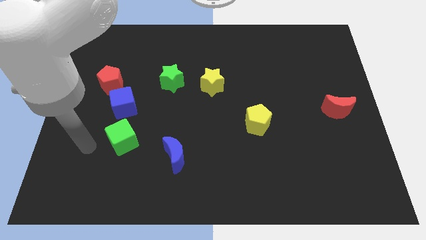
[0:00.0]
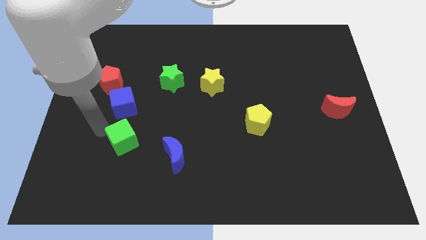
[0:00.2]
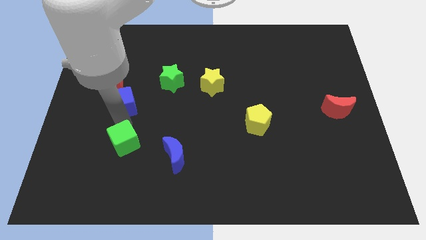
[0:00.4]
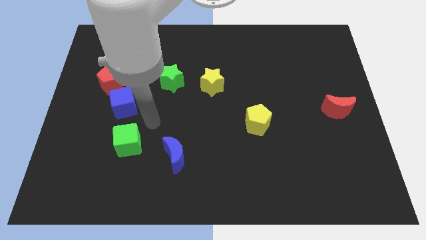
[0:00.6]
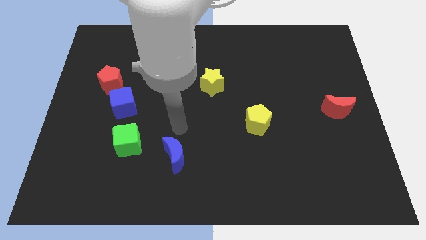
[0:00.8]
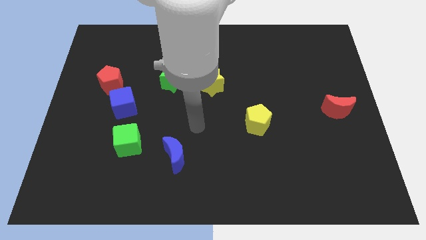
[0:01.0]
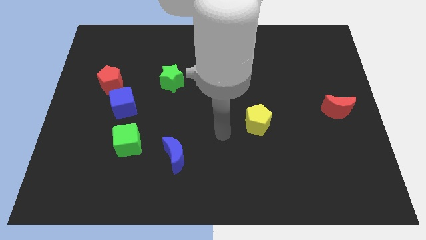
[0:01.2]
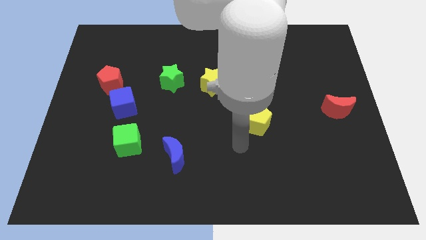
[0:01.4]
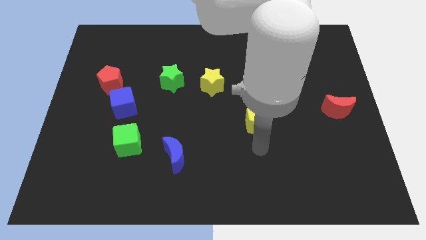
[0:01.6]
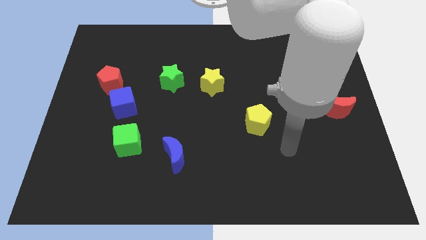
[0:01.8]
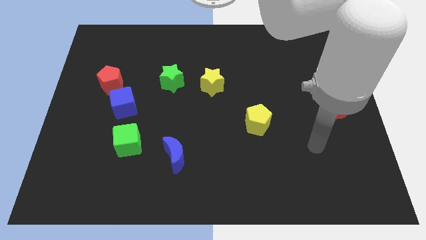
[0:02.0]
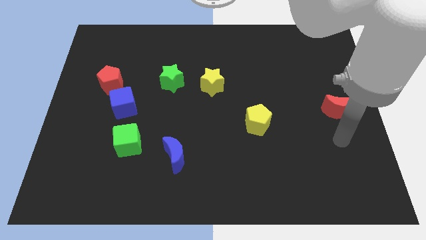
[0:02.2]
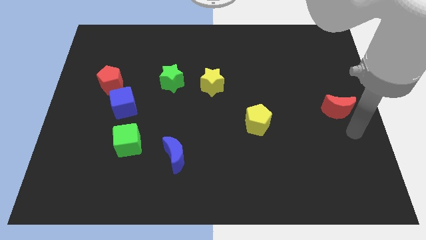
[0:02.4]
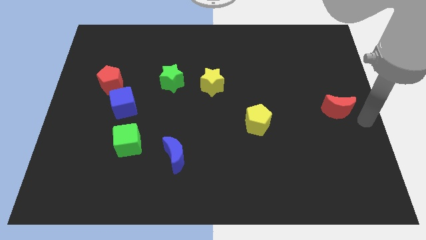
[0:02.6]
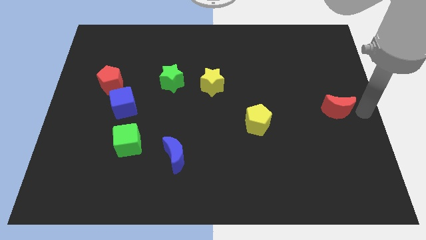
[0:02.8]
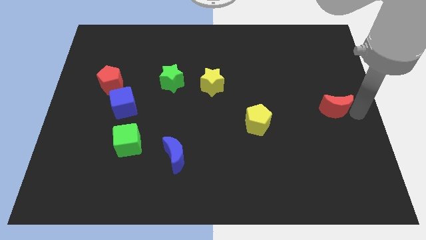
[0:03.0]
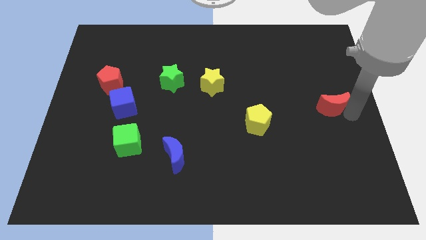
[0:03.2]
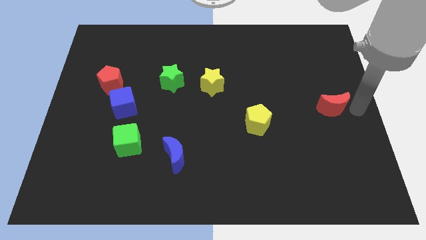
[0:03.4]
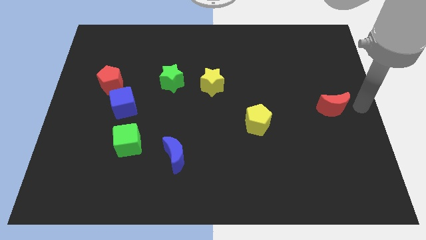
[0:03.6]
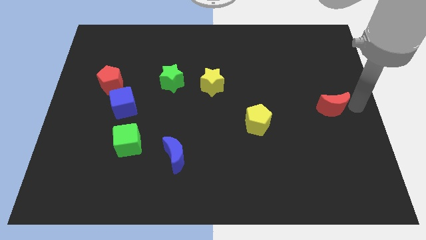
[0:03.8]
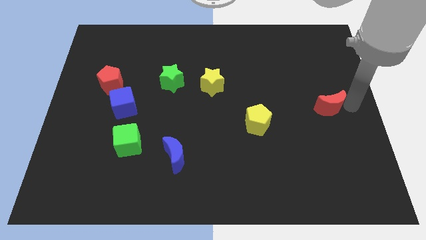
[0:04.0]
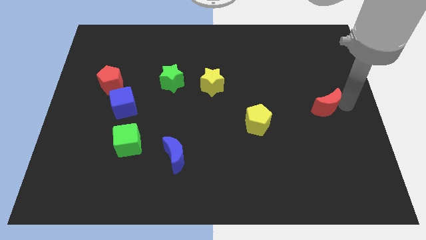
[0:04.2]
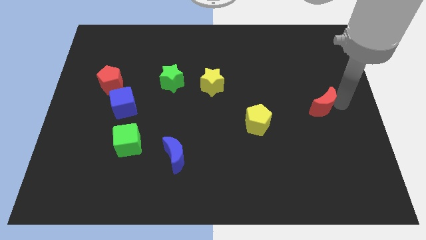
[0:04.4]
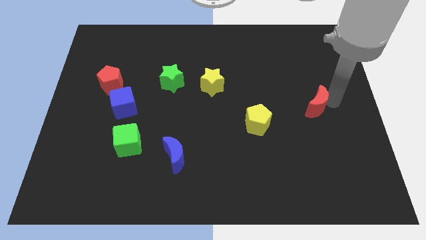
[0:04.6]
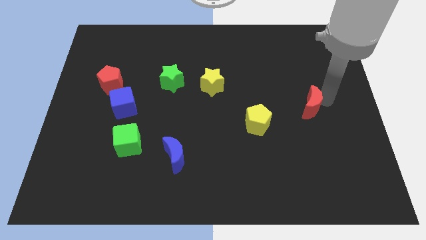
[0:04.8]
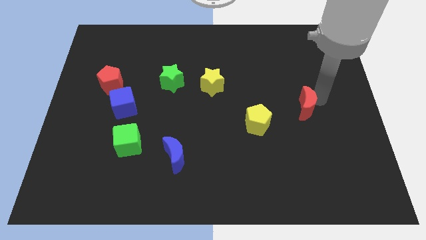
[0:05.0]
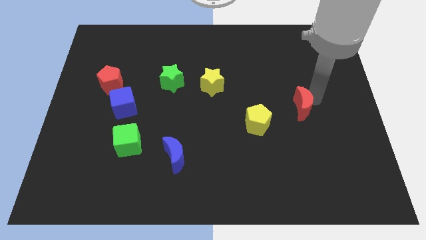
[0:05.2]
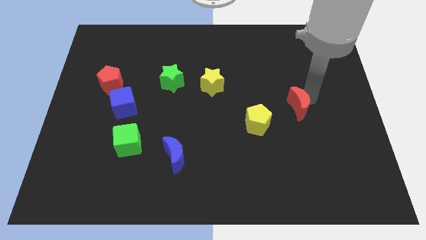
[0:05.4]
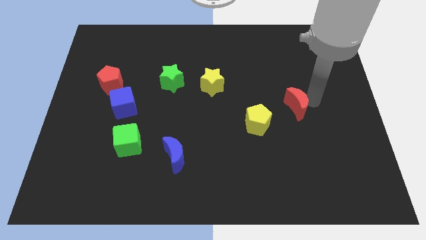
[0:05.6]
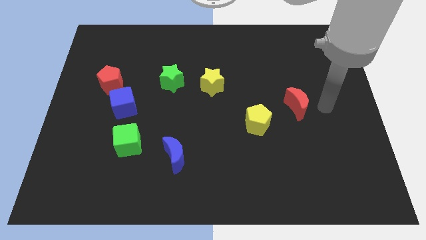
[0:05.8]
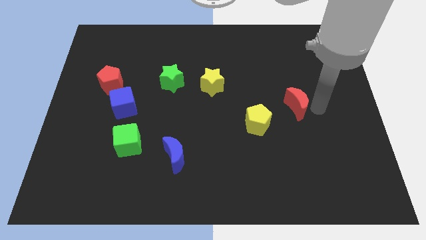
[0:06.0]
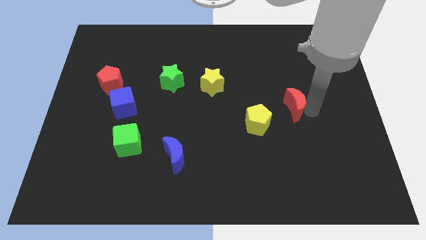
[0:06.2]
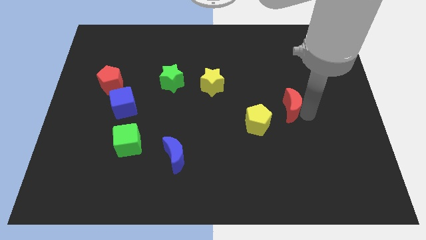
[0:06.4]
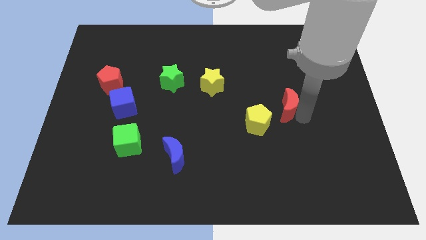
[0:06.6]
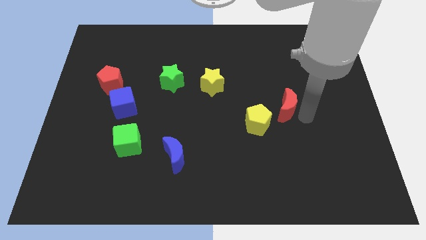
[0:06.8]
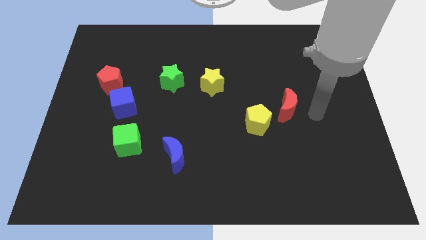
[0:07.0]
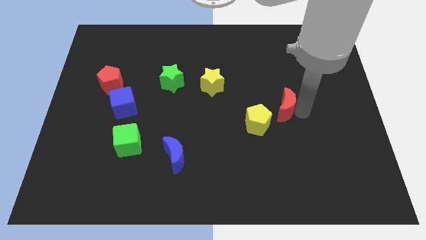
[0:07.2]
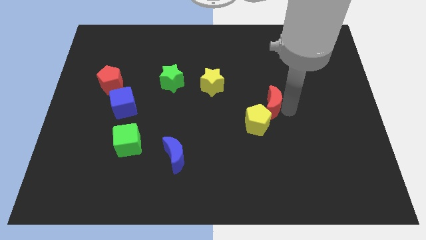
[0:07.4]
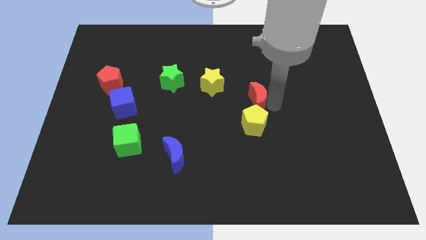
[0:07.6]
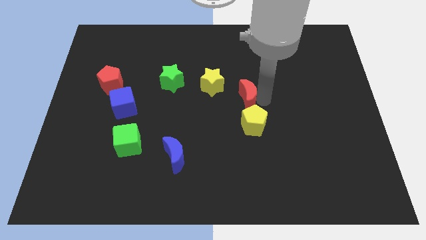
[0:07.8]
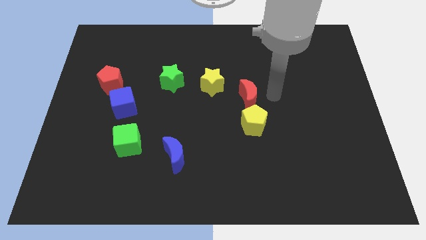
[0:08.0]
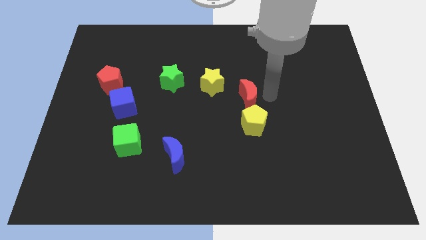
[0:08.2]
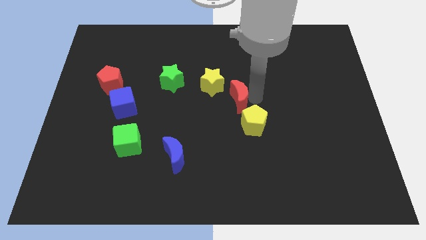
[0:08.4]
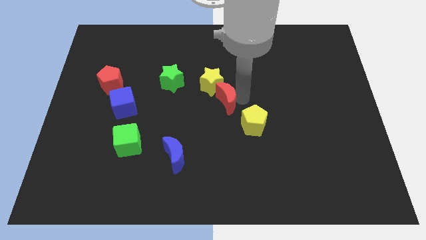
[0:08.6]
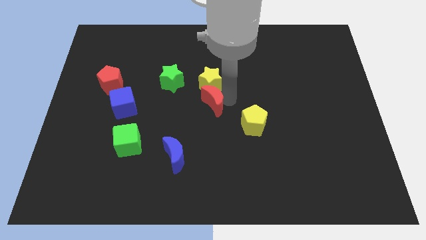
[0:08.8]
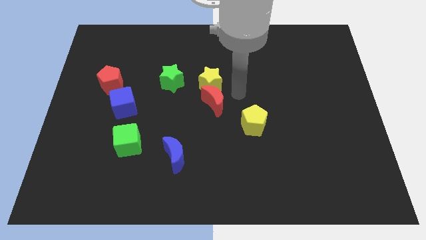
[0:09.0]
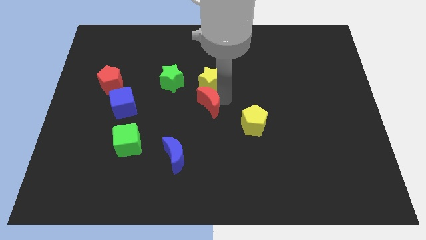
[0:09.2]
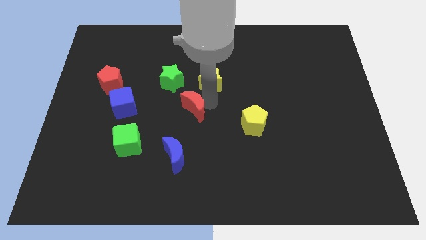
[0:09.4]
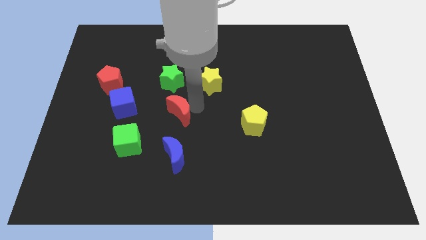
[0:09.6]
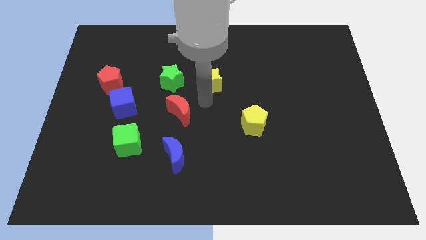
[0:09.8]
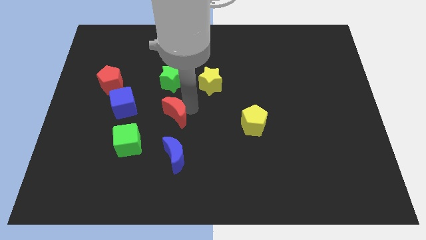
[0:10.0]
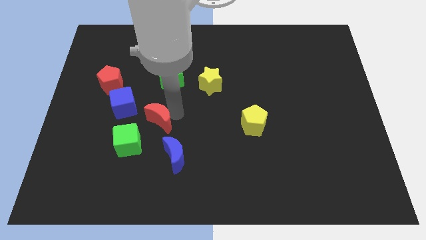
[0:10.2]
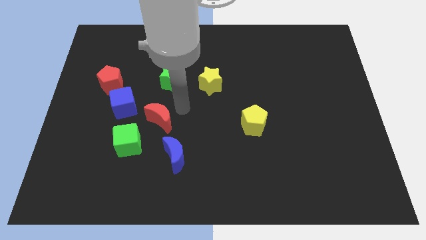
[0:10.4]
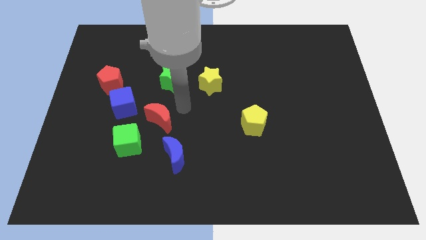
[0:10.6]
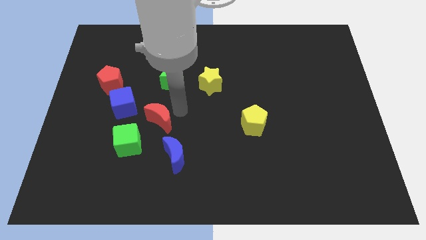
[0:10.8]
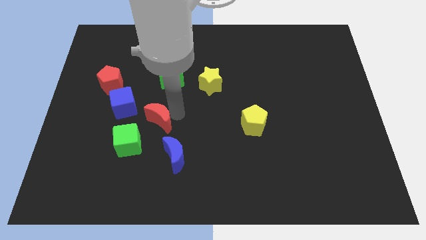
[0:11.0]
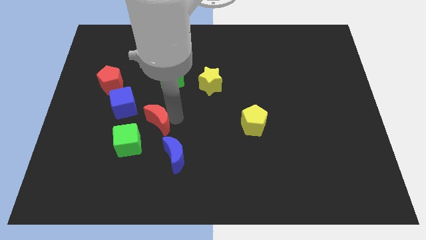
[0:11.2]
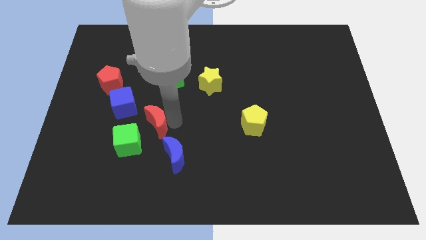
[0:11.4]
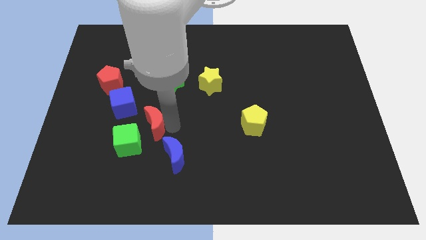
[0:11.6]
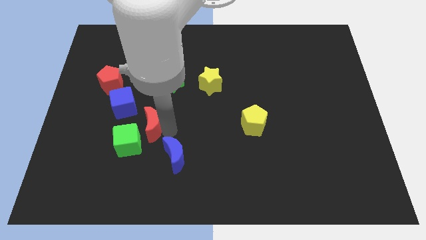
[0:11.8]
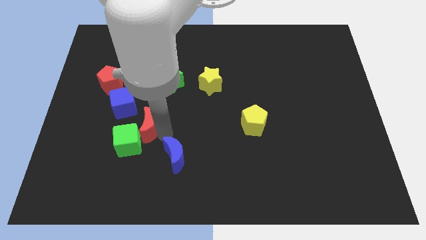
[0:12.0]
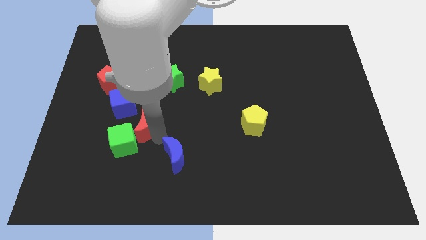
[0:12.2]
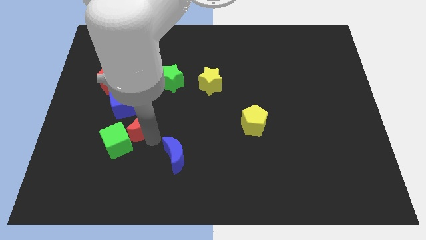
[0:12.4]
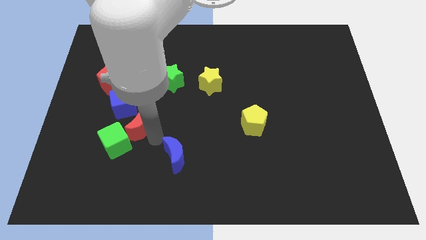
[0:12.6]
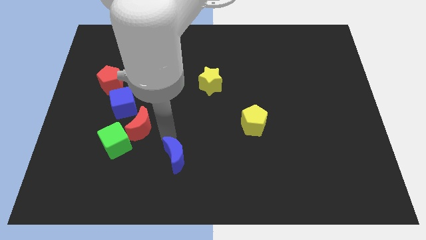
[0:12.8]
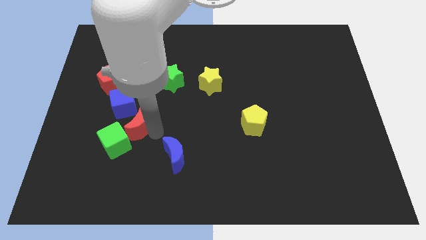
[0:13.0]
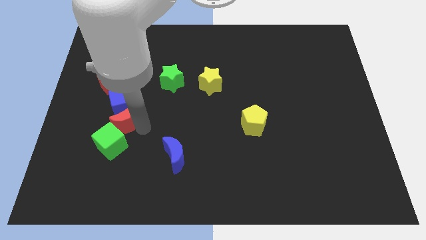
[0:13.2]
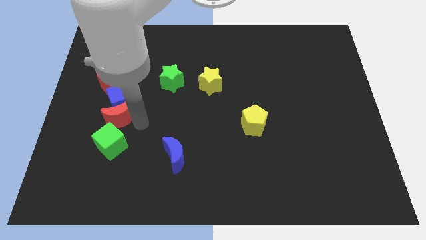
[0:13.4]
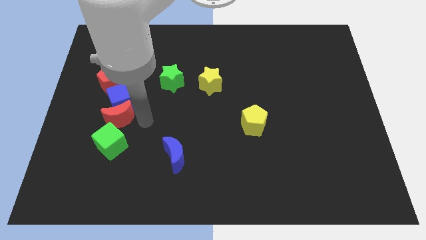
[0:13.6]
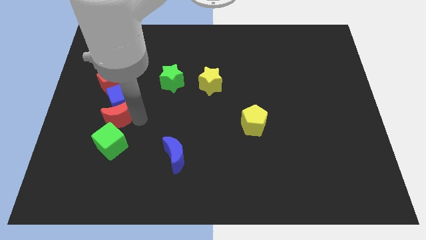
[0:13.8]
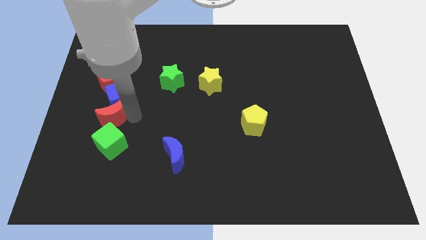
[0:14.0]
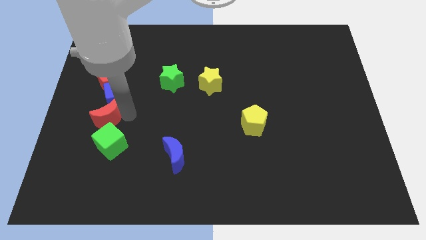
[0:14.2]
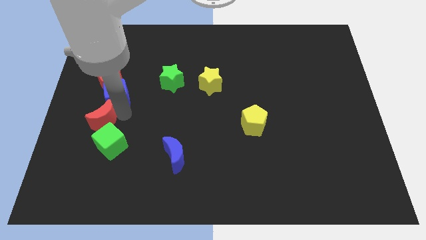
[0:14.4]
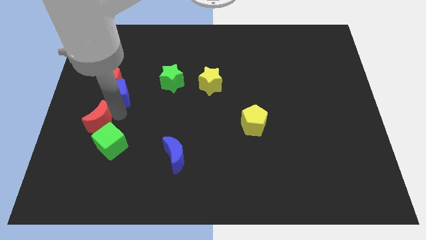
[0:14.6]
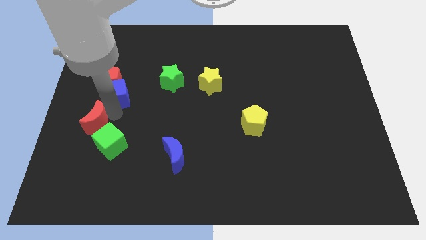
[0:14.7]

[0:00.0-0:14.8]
slide the red moon to the center left
